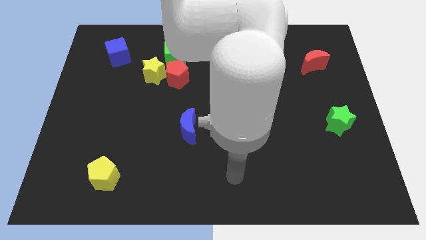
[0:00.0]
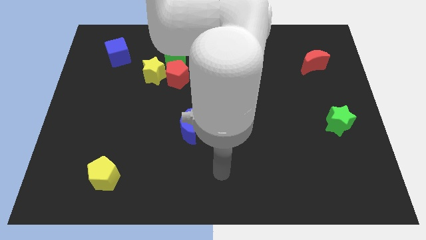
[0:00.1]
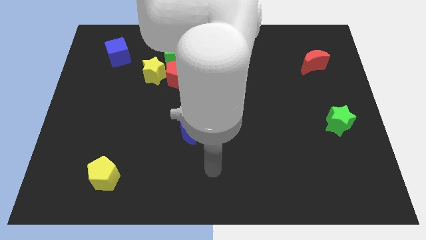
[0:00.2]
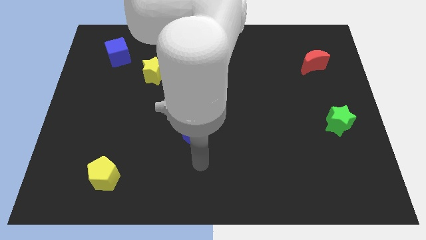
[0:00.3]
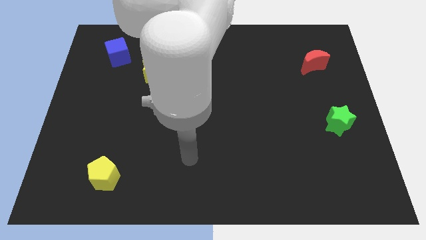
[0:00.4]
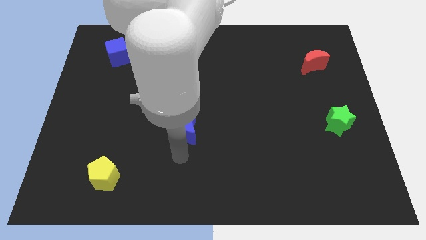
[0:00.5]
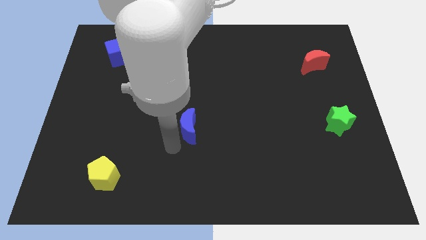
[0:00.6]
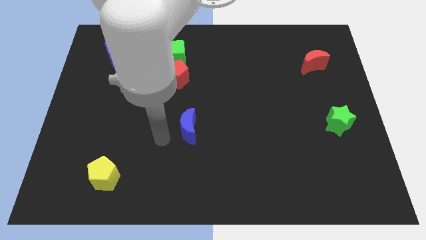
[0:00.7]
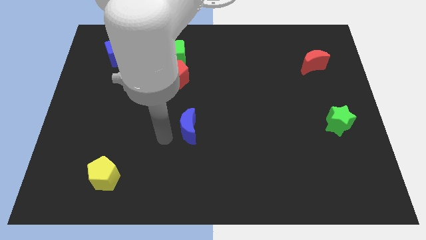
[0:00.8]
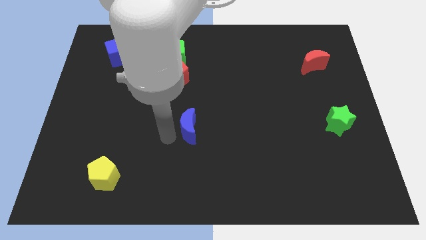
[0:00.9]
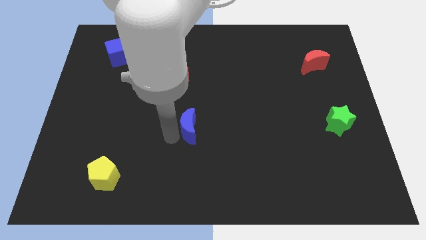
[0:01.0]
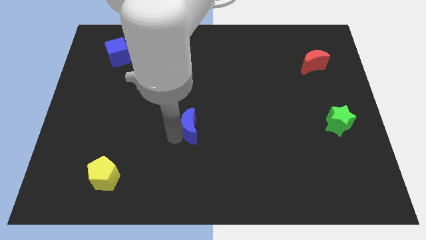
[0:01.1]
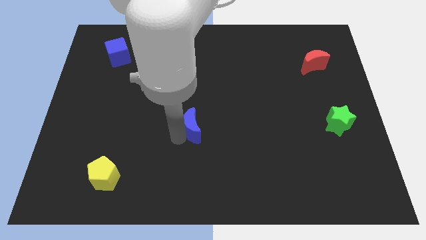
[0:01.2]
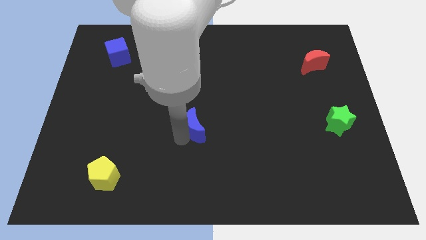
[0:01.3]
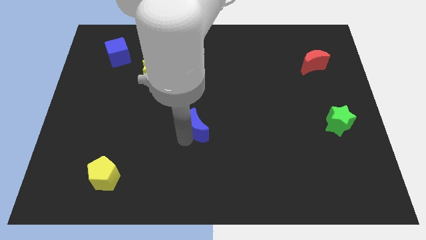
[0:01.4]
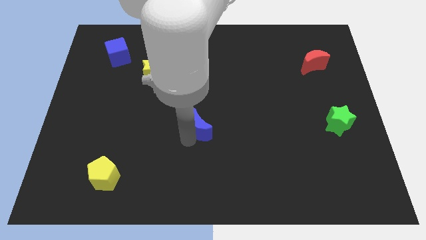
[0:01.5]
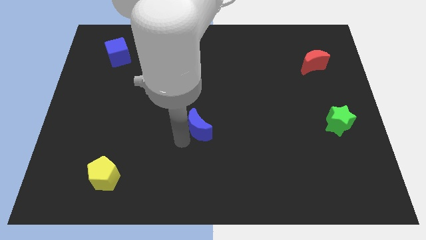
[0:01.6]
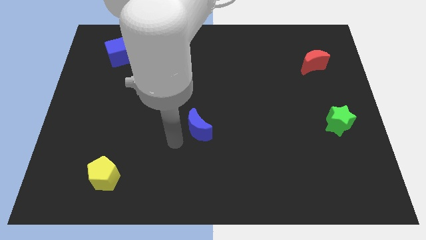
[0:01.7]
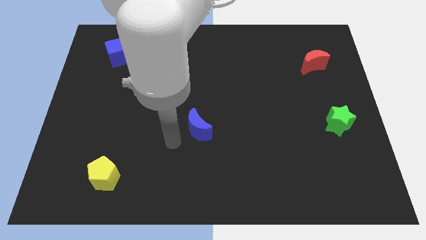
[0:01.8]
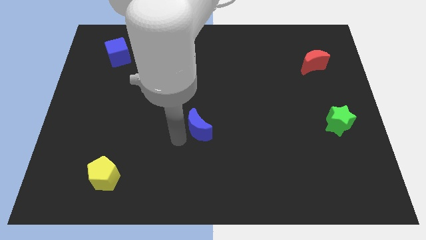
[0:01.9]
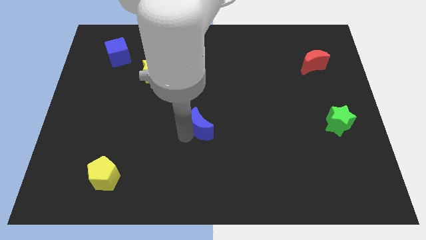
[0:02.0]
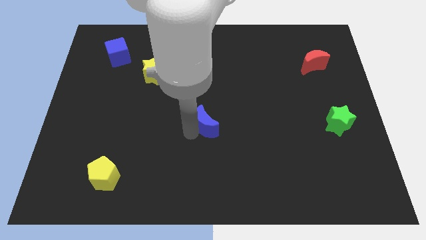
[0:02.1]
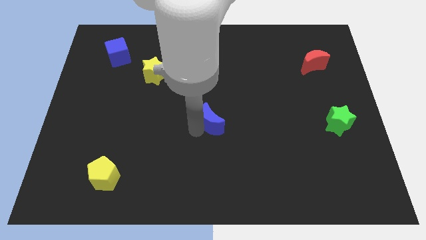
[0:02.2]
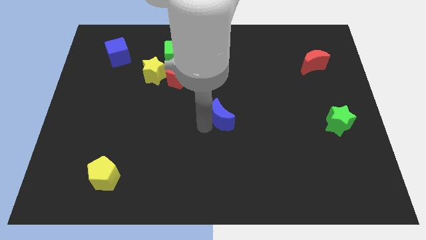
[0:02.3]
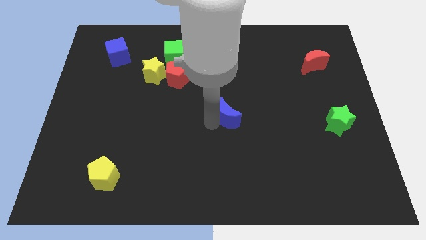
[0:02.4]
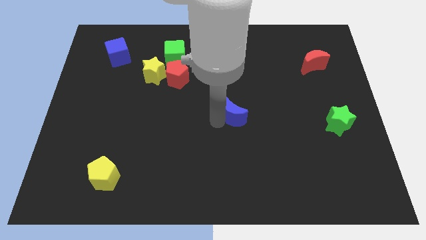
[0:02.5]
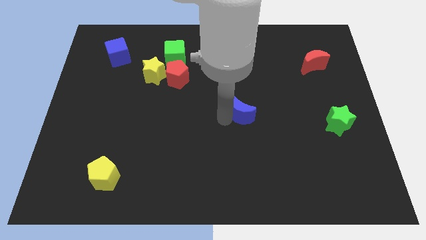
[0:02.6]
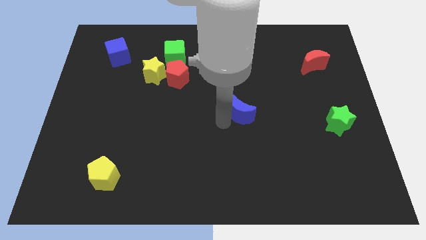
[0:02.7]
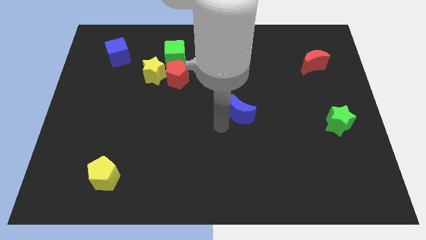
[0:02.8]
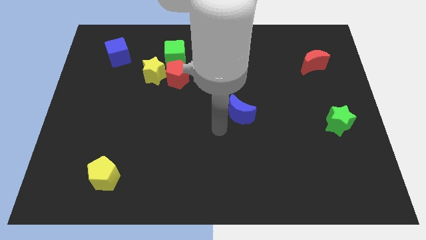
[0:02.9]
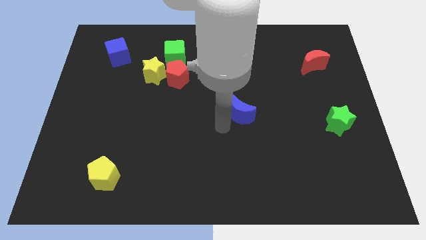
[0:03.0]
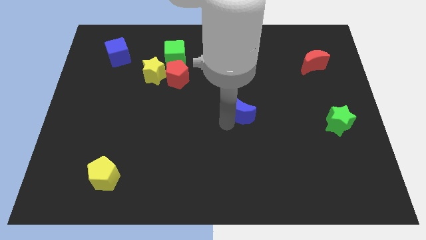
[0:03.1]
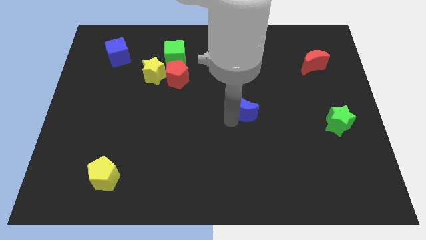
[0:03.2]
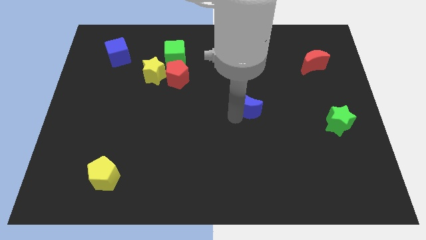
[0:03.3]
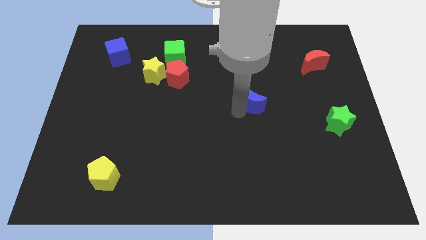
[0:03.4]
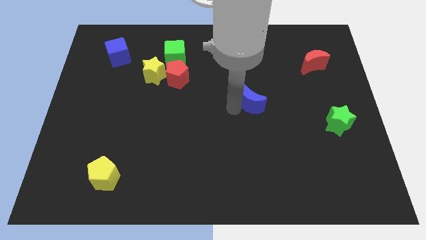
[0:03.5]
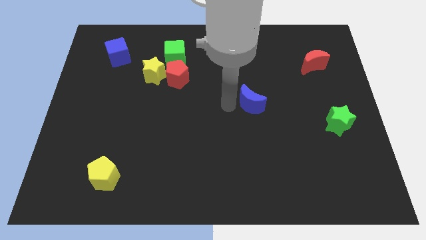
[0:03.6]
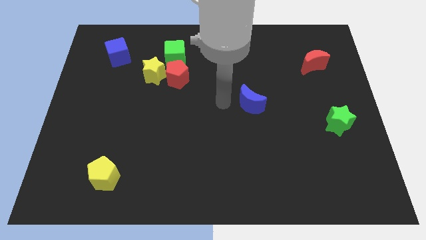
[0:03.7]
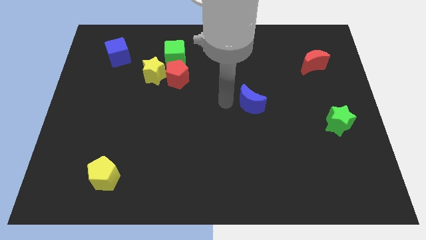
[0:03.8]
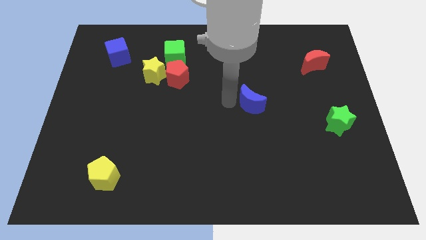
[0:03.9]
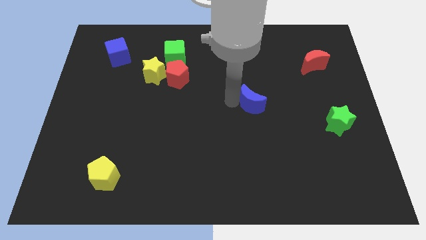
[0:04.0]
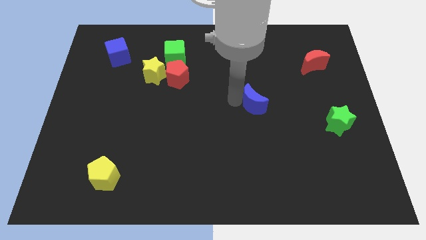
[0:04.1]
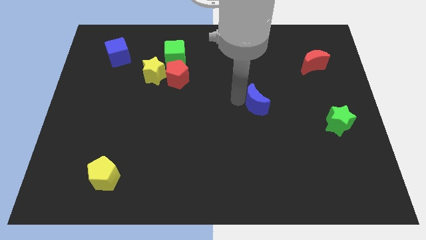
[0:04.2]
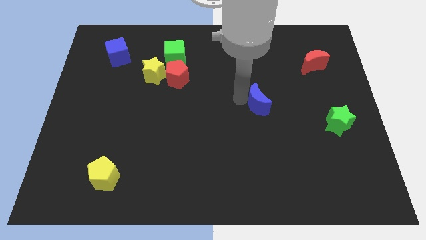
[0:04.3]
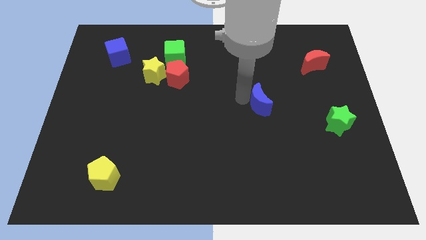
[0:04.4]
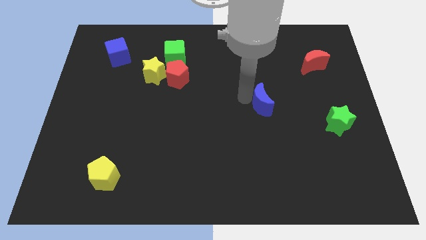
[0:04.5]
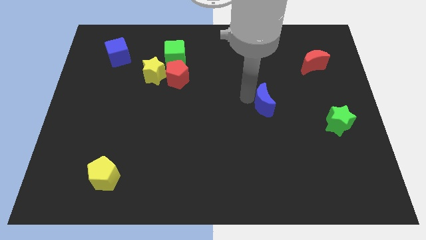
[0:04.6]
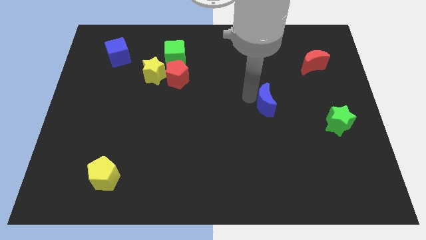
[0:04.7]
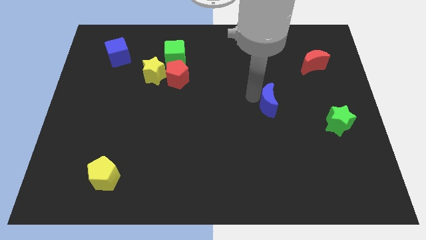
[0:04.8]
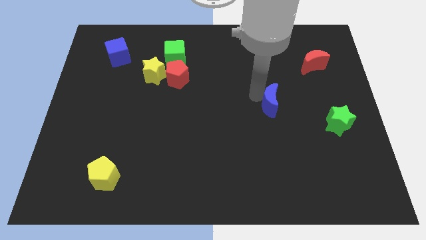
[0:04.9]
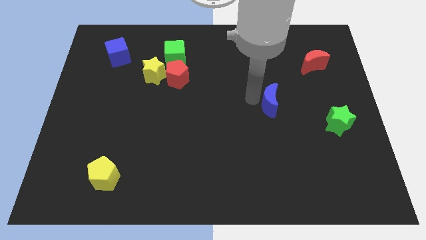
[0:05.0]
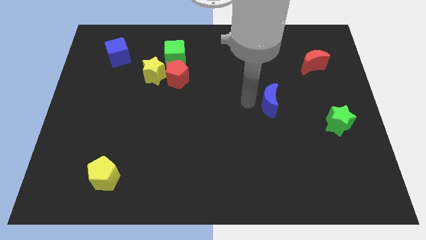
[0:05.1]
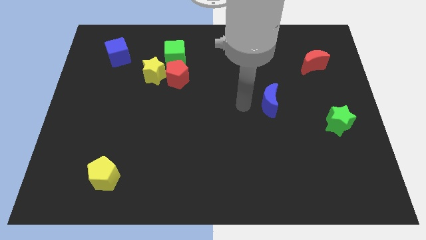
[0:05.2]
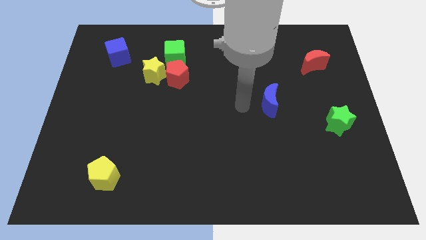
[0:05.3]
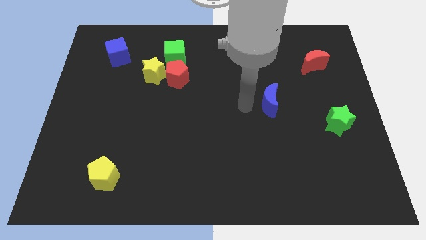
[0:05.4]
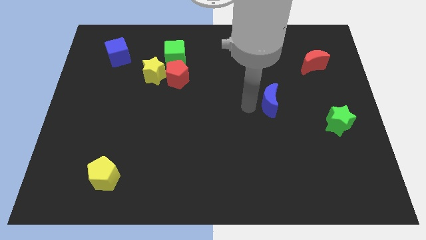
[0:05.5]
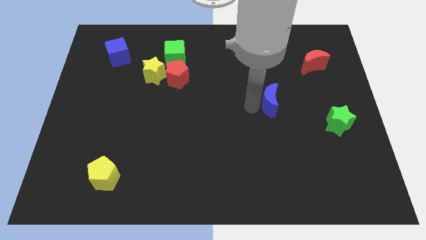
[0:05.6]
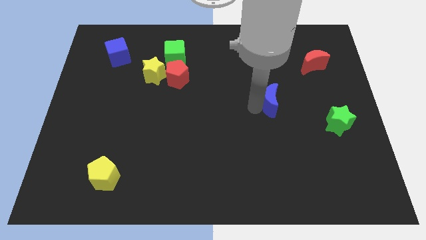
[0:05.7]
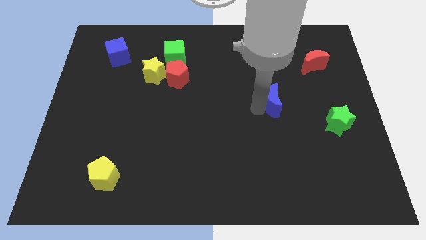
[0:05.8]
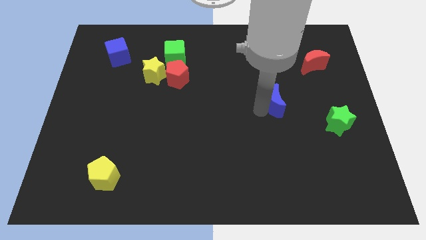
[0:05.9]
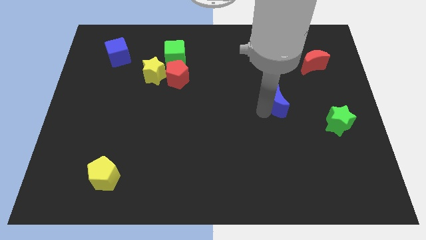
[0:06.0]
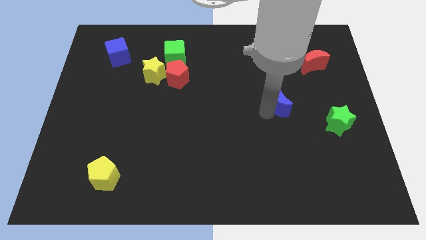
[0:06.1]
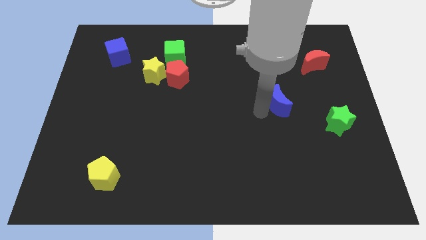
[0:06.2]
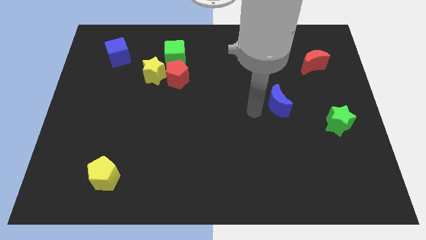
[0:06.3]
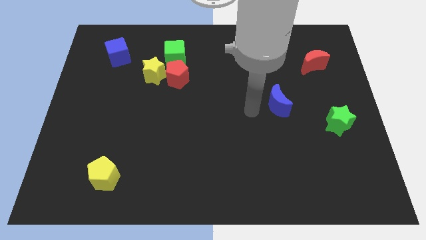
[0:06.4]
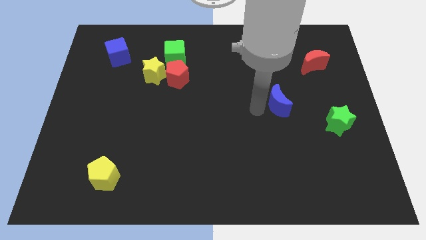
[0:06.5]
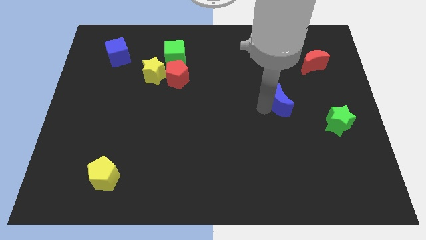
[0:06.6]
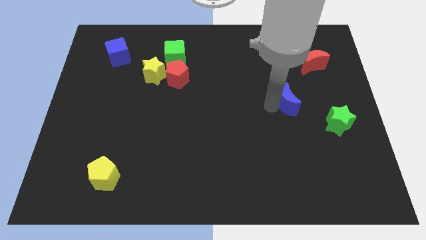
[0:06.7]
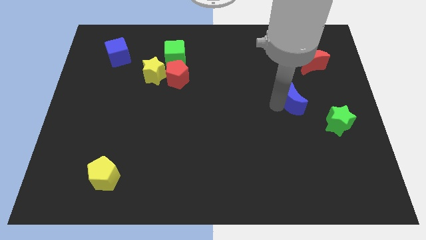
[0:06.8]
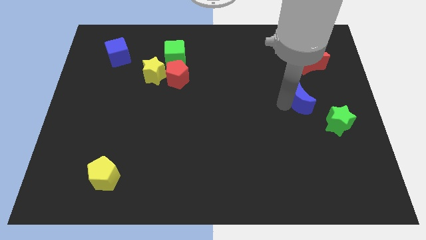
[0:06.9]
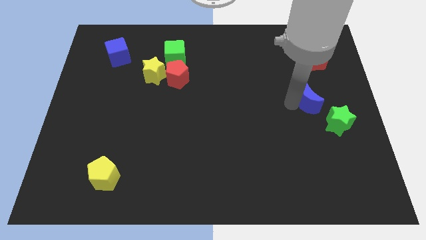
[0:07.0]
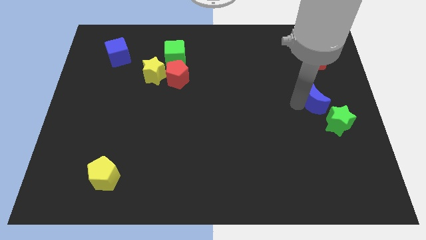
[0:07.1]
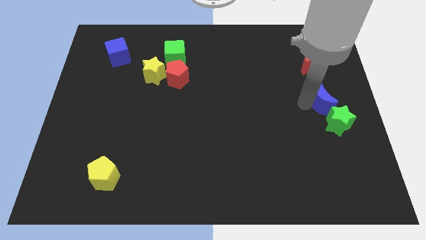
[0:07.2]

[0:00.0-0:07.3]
push the blue moon to the right side
